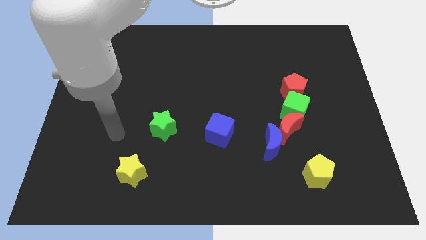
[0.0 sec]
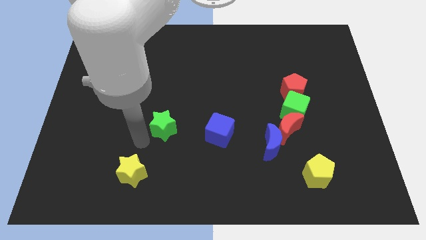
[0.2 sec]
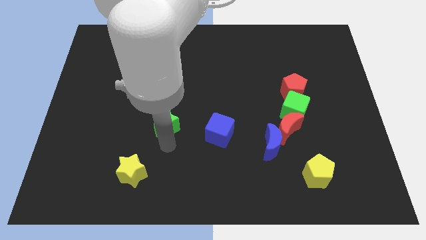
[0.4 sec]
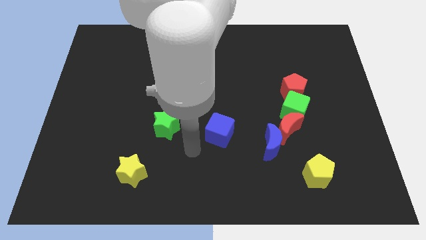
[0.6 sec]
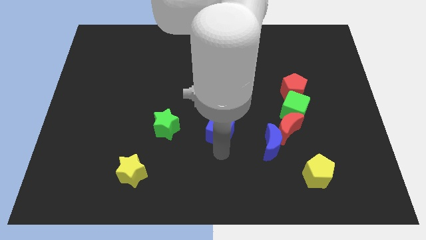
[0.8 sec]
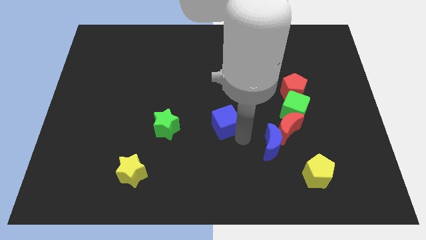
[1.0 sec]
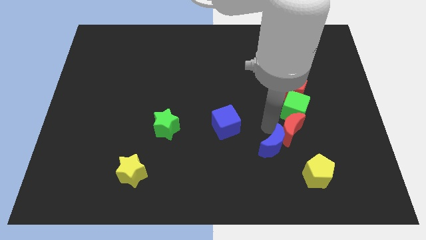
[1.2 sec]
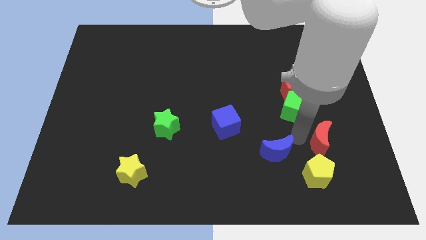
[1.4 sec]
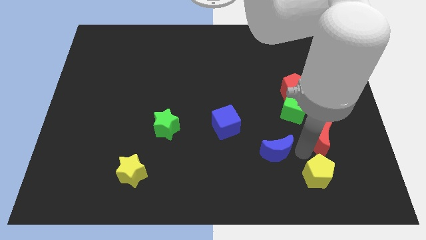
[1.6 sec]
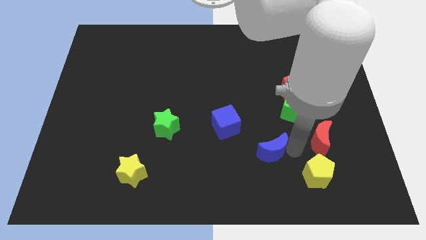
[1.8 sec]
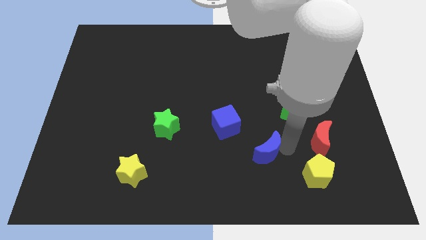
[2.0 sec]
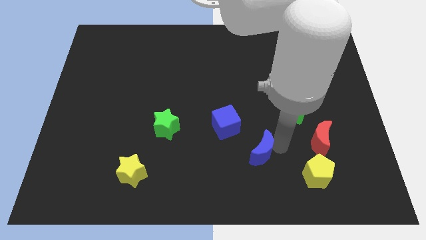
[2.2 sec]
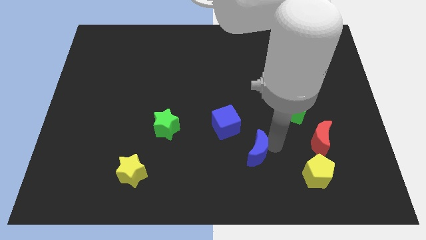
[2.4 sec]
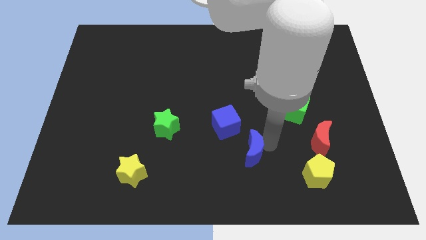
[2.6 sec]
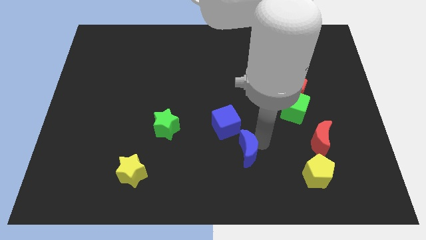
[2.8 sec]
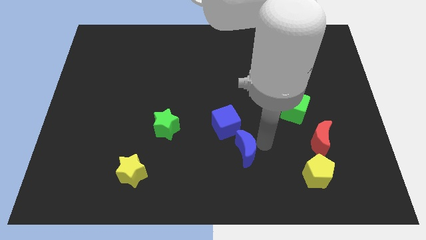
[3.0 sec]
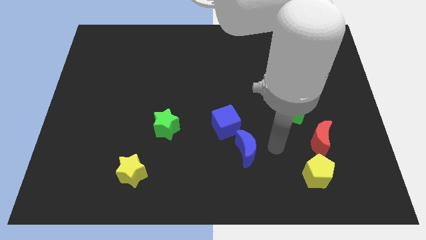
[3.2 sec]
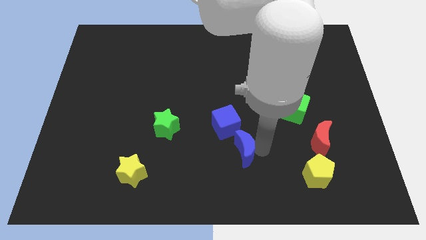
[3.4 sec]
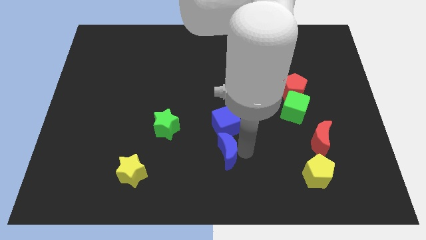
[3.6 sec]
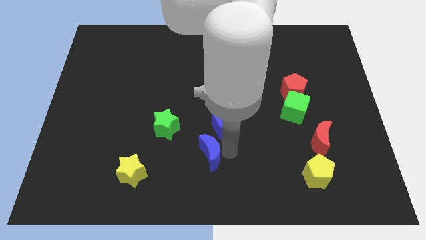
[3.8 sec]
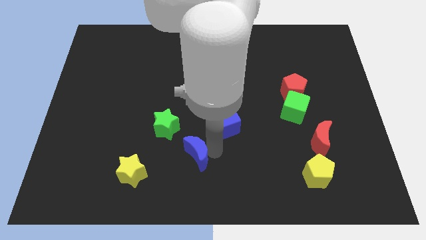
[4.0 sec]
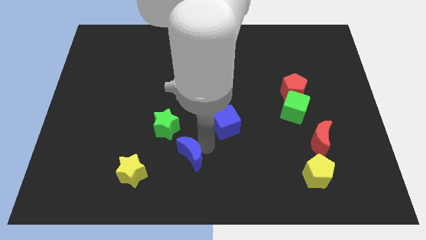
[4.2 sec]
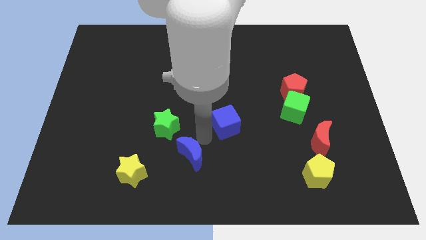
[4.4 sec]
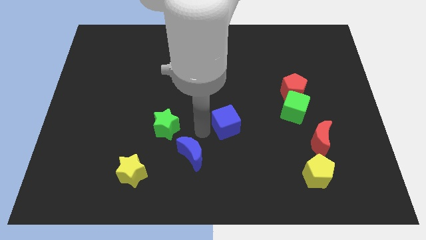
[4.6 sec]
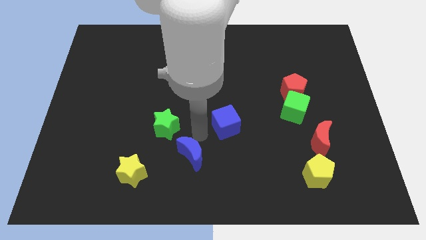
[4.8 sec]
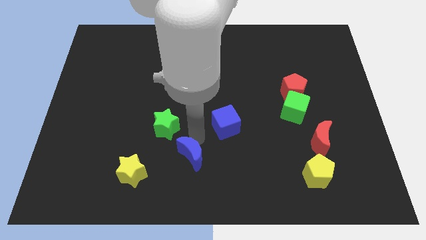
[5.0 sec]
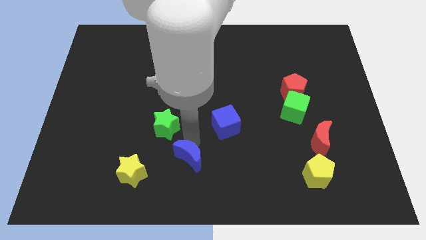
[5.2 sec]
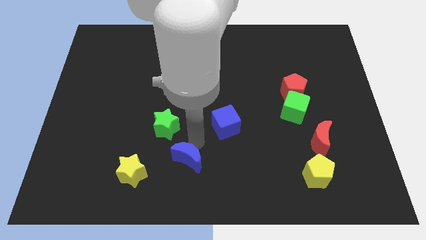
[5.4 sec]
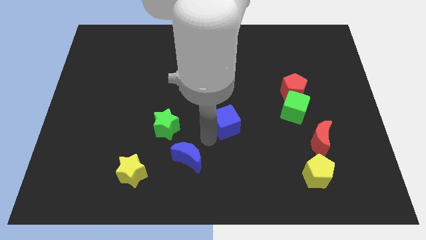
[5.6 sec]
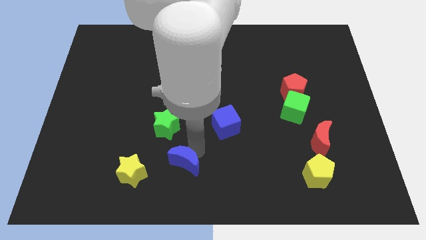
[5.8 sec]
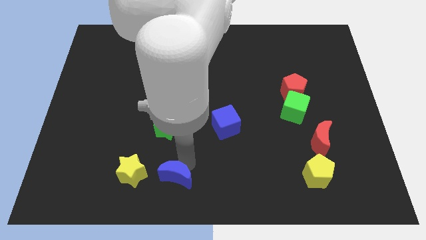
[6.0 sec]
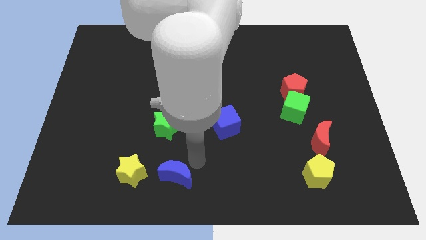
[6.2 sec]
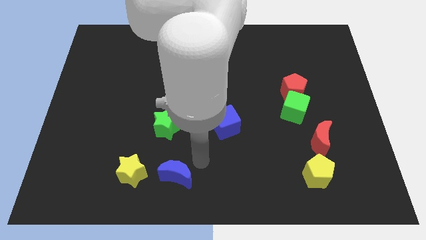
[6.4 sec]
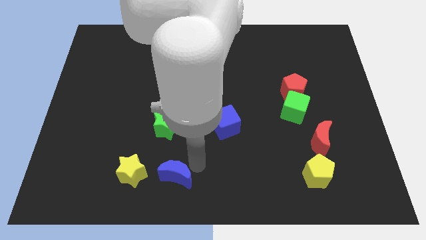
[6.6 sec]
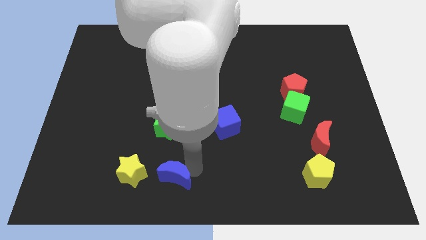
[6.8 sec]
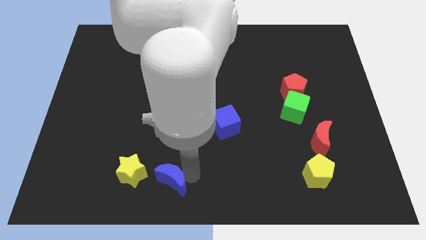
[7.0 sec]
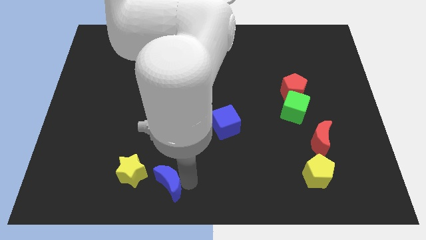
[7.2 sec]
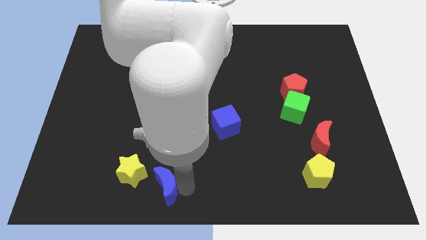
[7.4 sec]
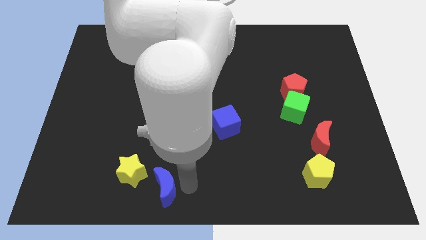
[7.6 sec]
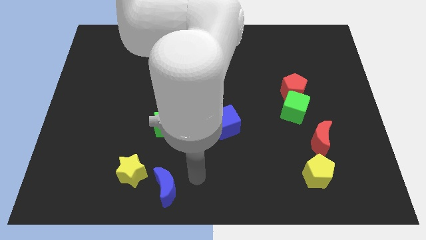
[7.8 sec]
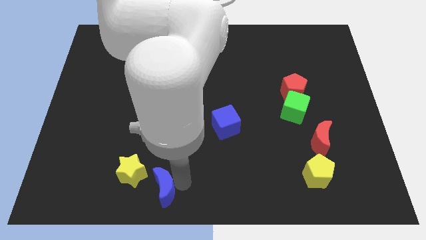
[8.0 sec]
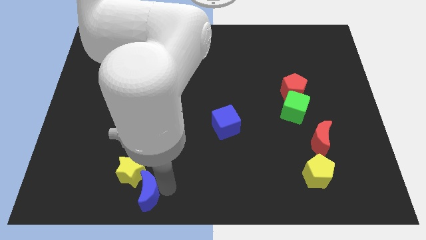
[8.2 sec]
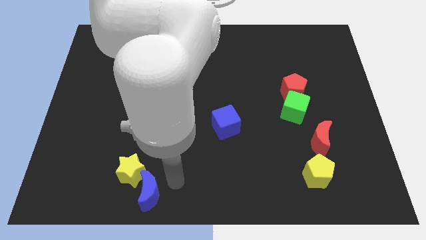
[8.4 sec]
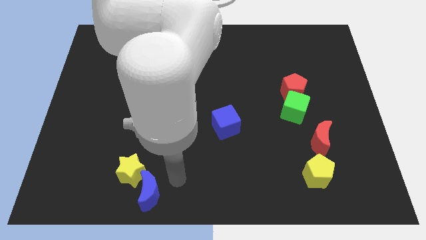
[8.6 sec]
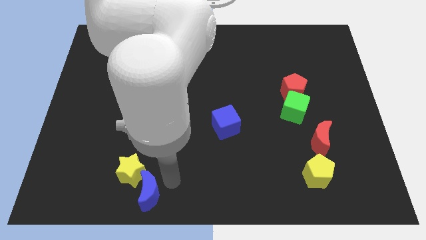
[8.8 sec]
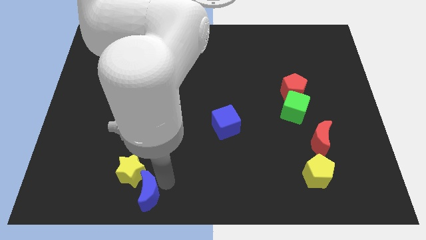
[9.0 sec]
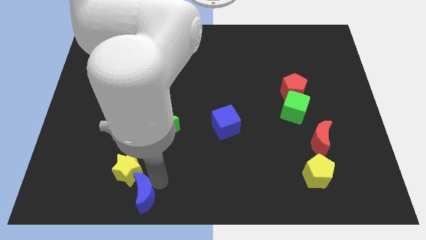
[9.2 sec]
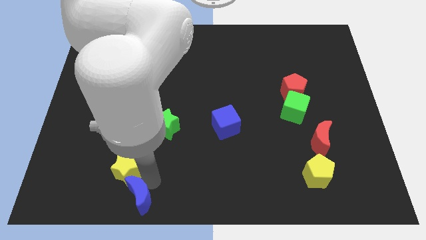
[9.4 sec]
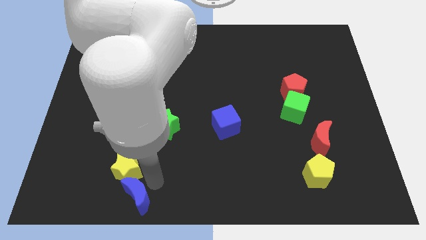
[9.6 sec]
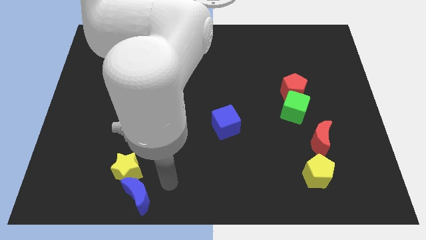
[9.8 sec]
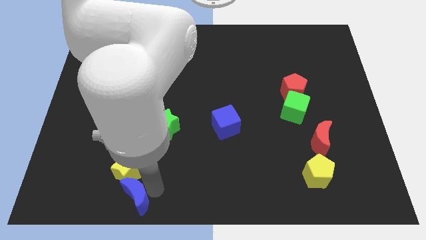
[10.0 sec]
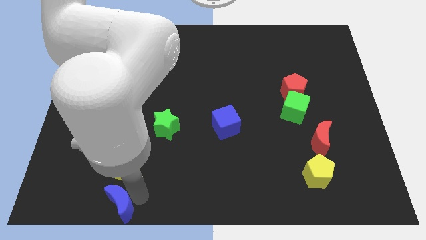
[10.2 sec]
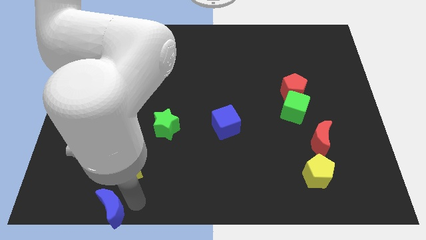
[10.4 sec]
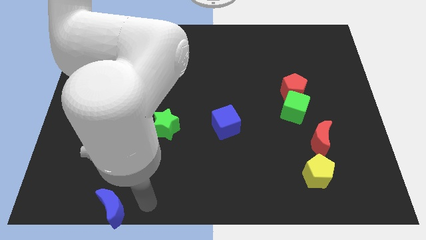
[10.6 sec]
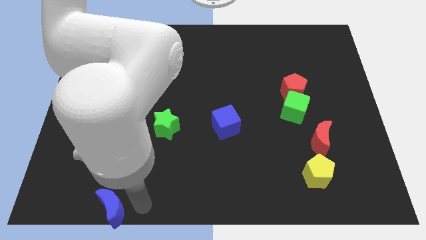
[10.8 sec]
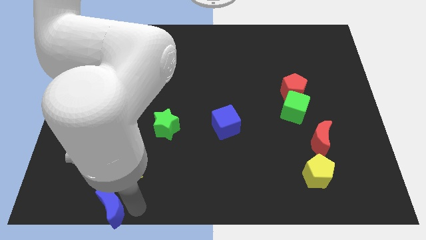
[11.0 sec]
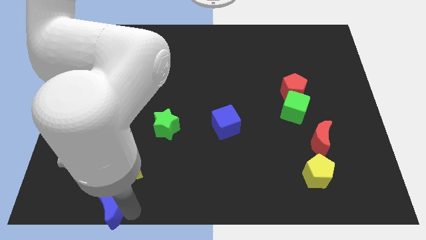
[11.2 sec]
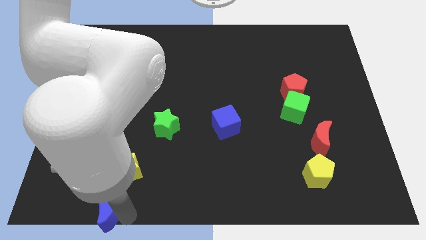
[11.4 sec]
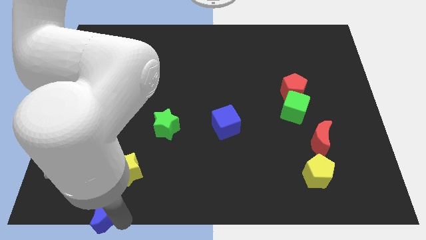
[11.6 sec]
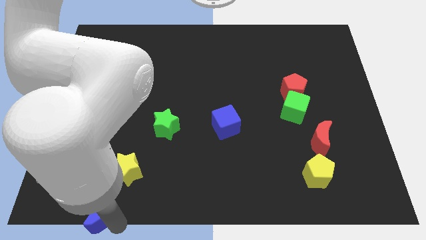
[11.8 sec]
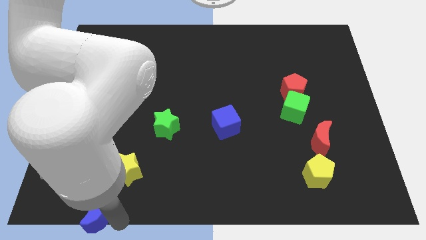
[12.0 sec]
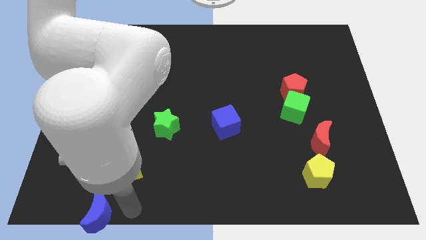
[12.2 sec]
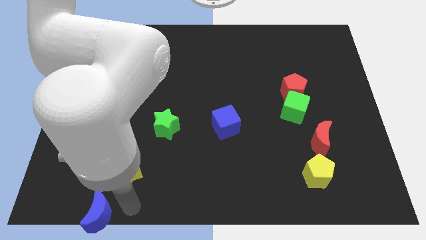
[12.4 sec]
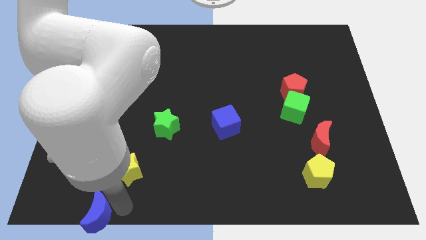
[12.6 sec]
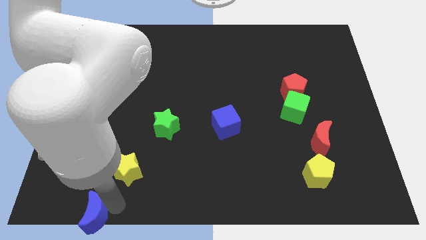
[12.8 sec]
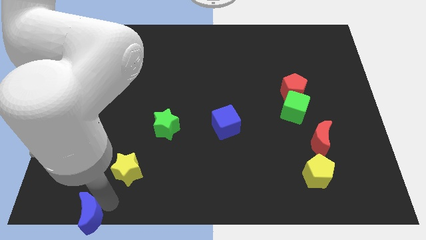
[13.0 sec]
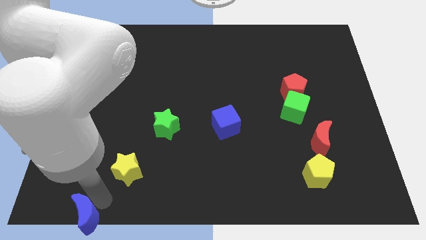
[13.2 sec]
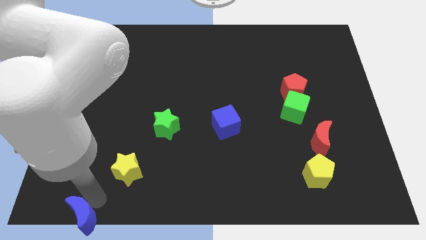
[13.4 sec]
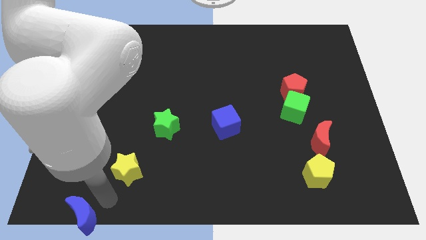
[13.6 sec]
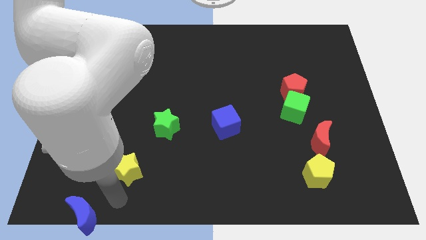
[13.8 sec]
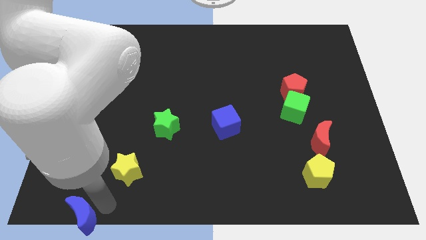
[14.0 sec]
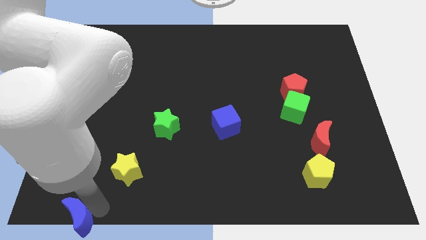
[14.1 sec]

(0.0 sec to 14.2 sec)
push the blue moon to the lower left corner
